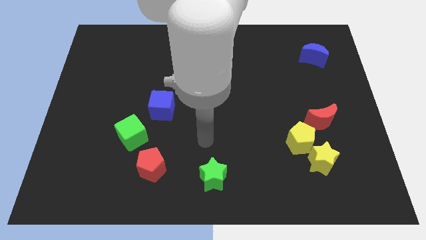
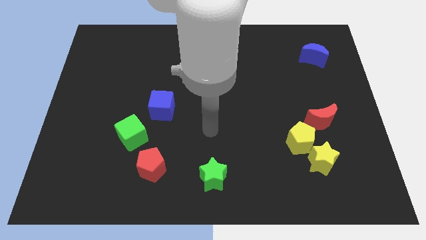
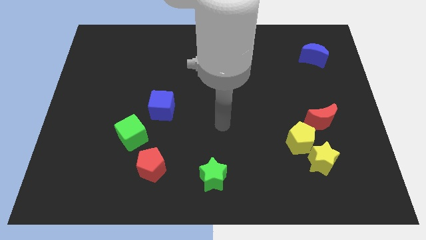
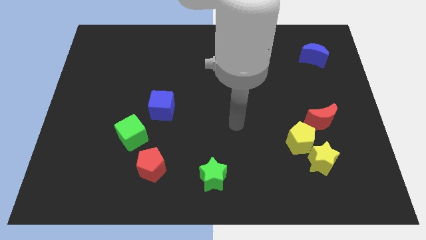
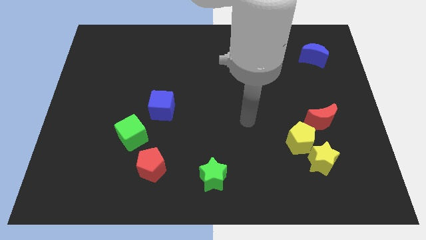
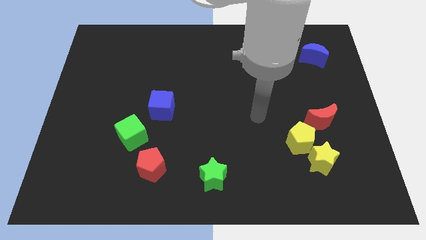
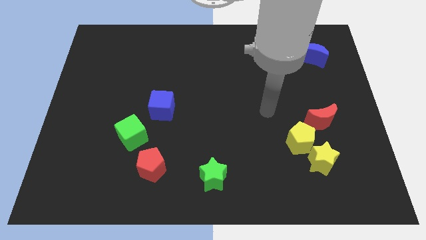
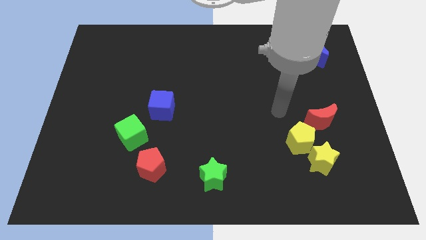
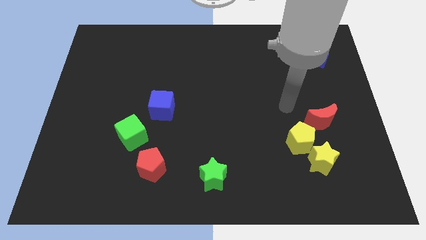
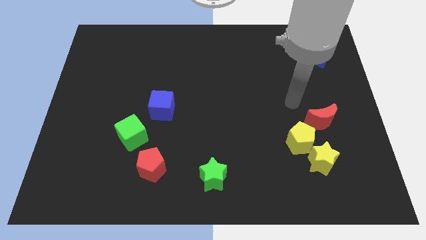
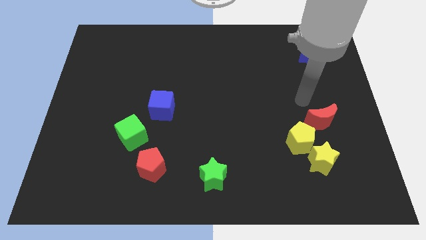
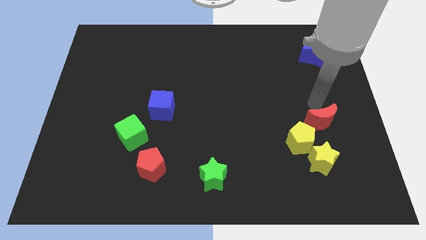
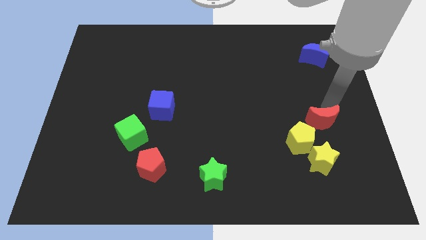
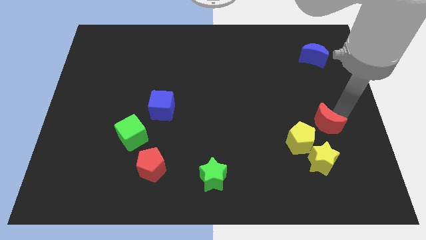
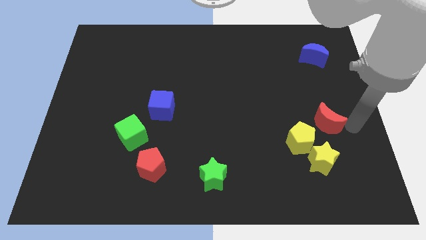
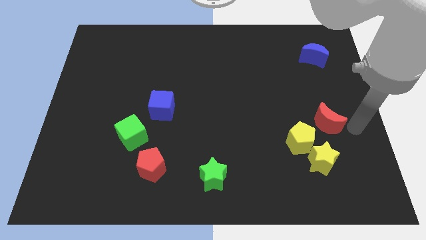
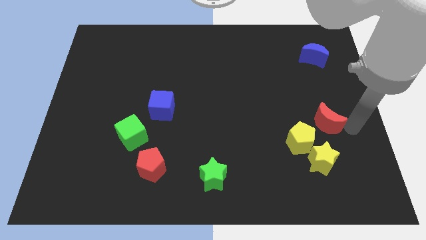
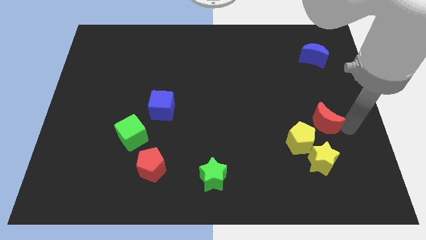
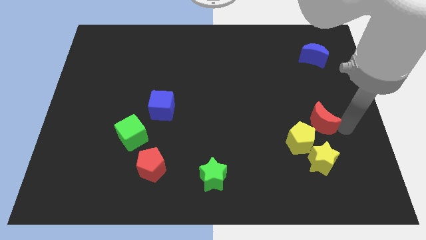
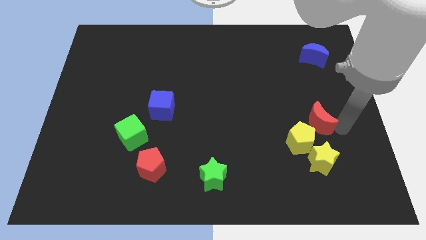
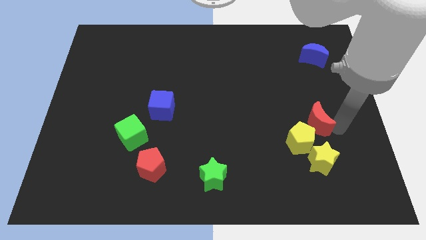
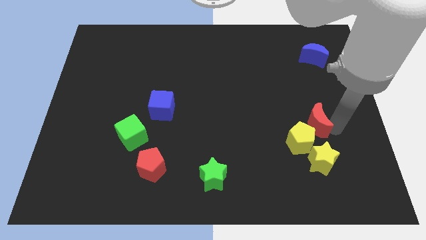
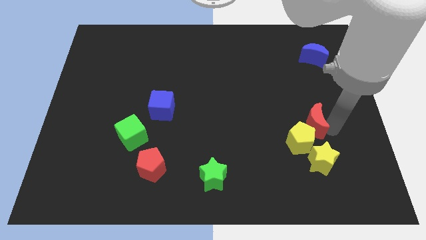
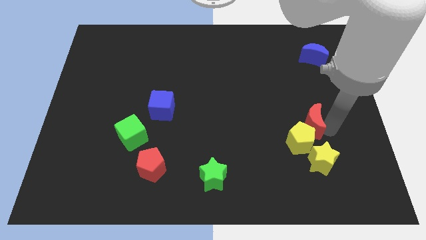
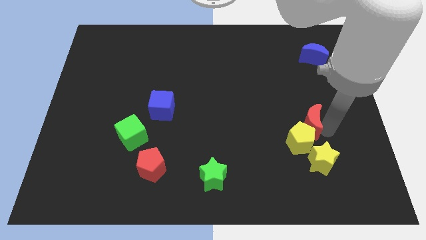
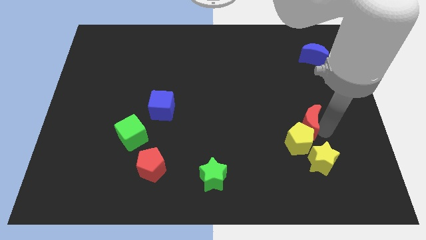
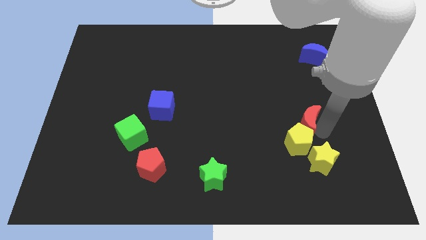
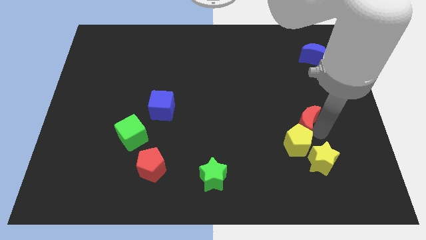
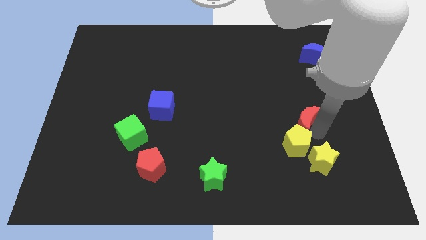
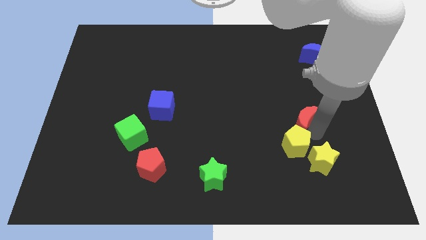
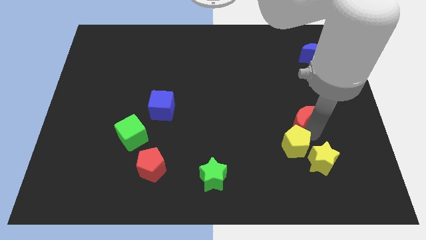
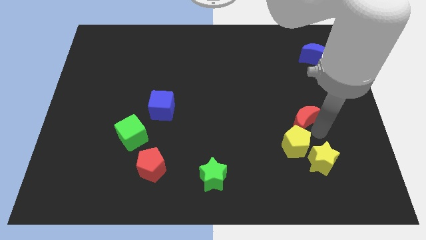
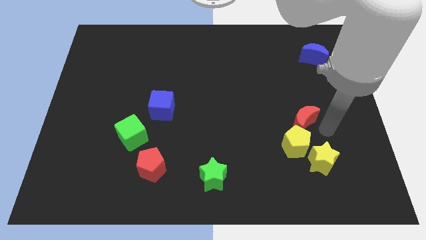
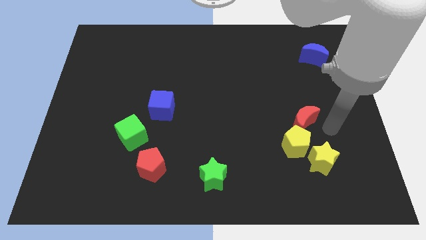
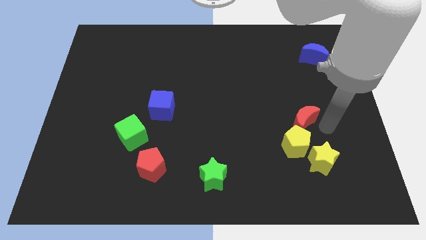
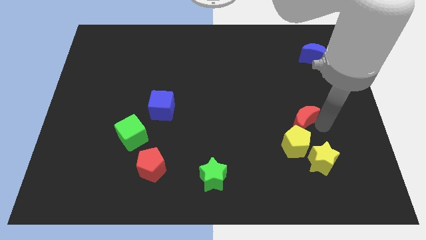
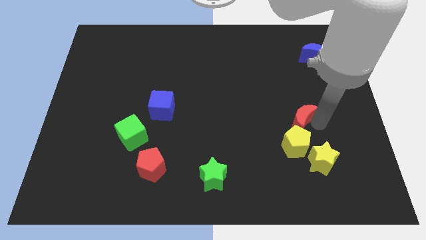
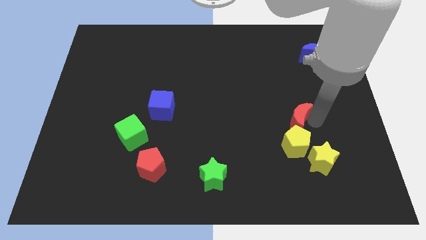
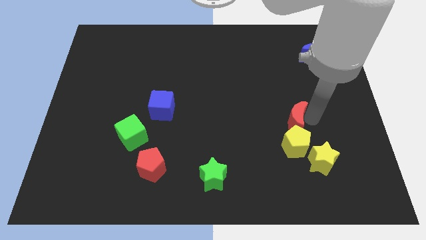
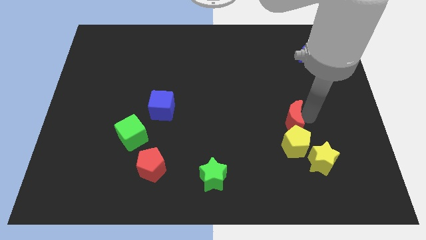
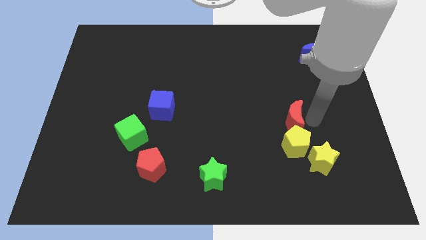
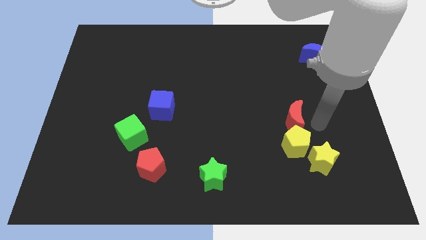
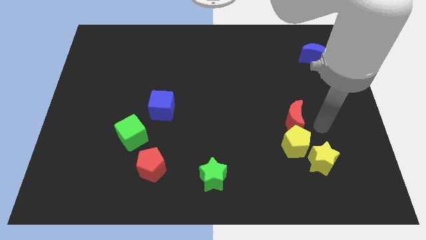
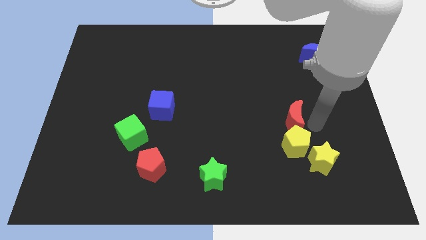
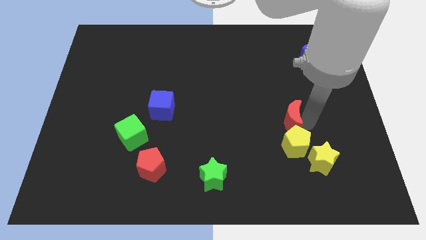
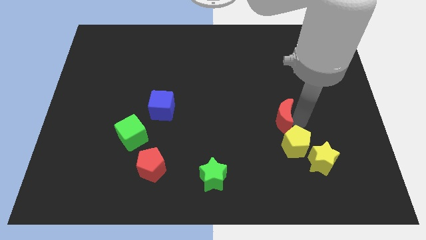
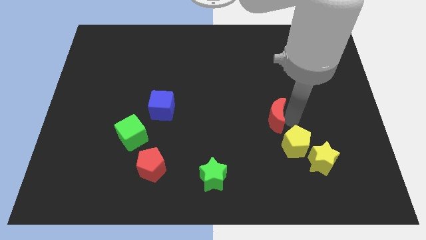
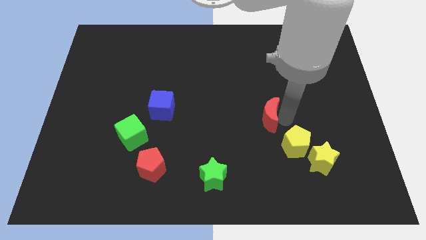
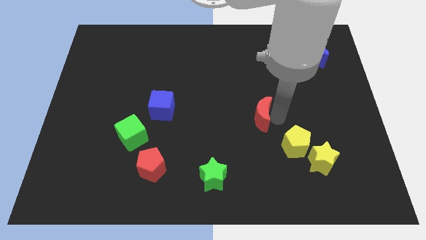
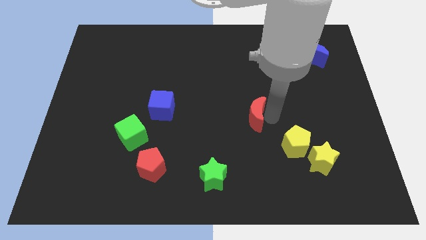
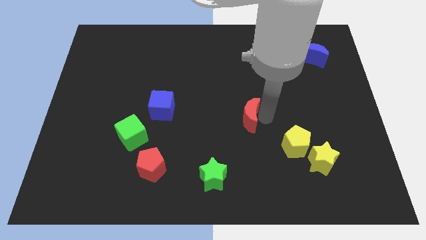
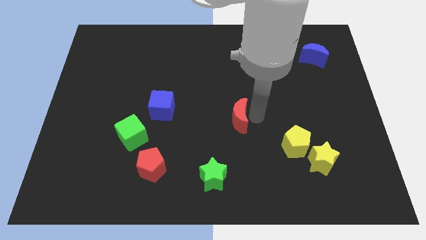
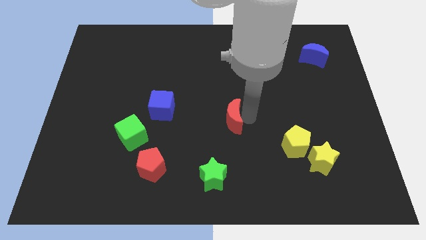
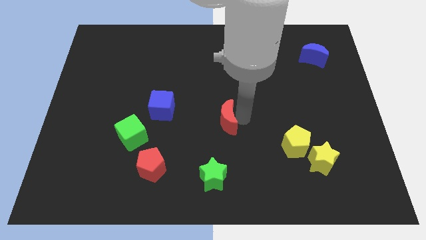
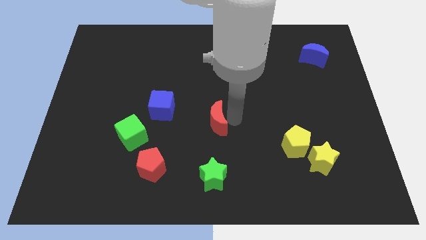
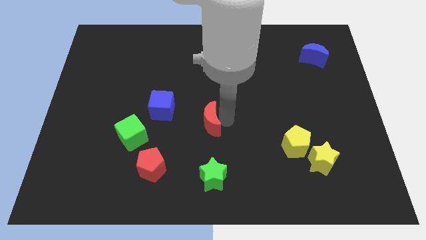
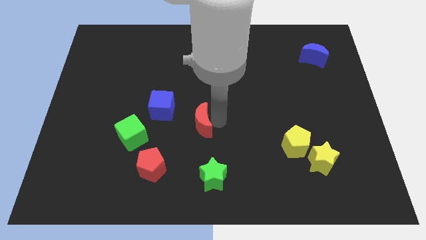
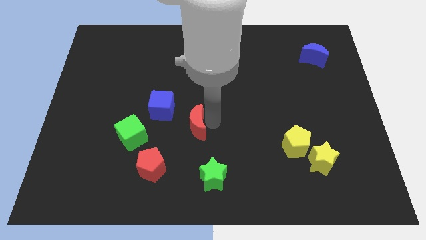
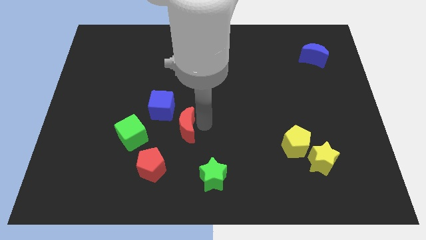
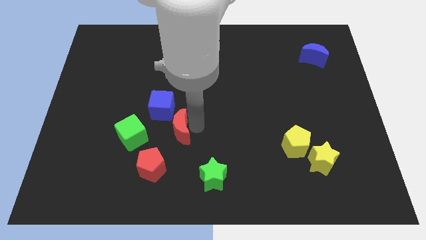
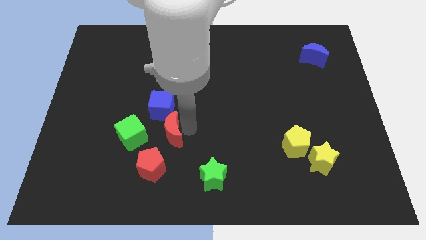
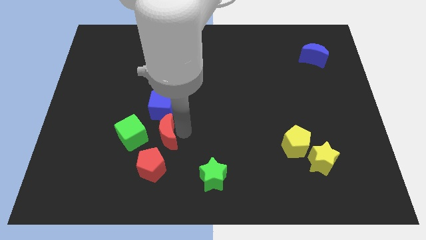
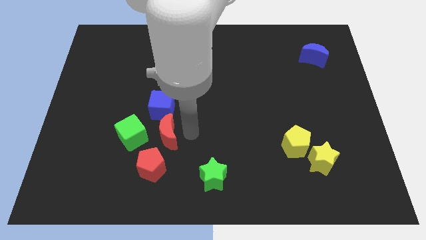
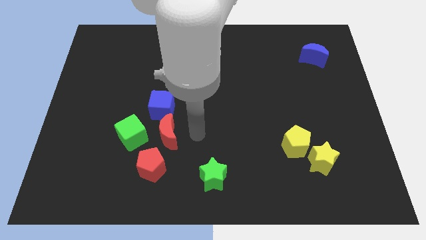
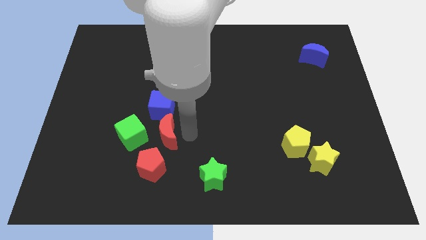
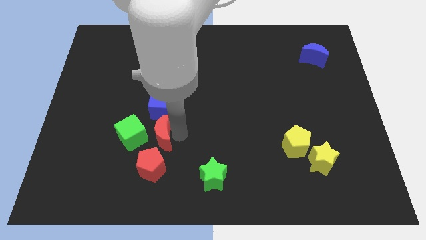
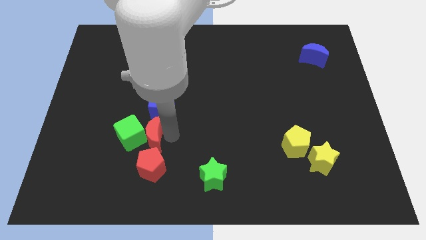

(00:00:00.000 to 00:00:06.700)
move the red moon towards the green cube
